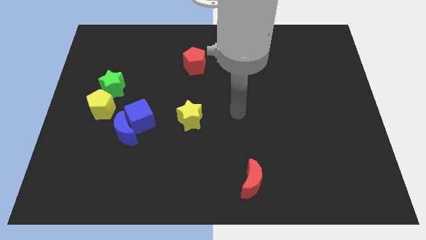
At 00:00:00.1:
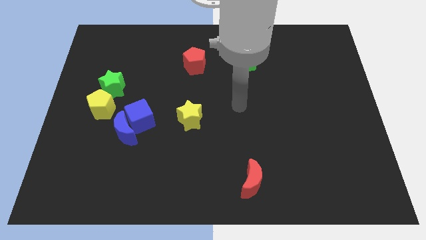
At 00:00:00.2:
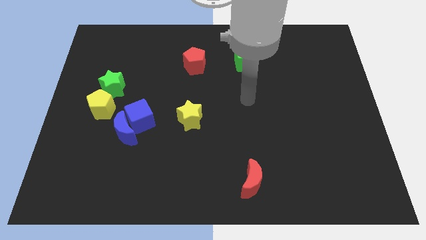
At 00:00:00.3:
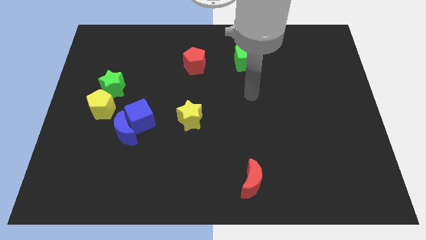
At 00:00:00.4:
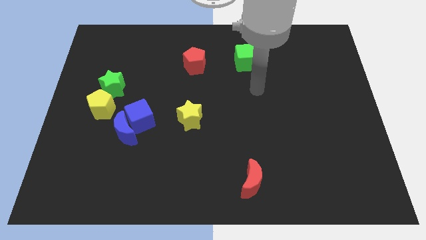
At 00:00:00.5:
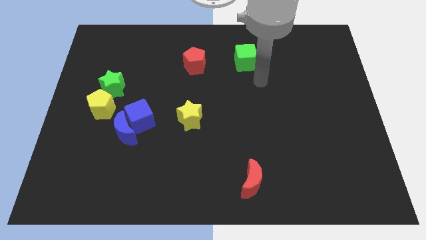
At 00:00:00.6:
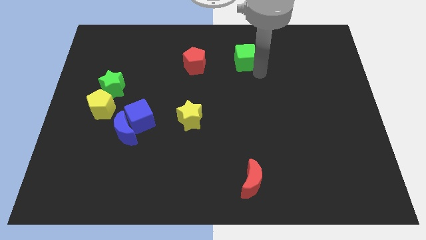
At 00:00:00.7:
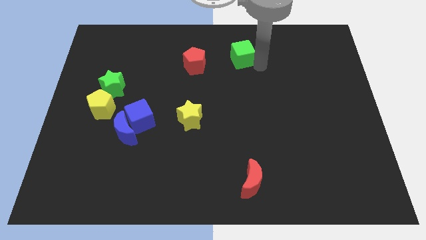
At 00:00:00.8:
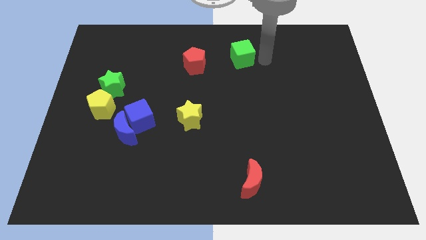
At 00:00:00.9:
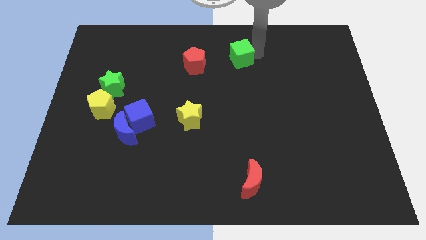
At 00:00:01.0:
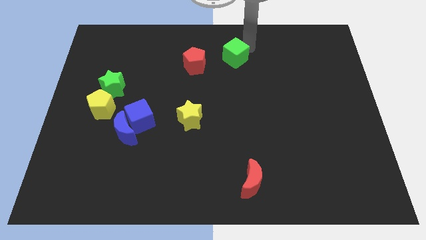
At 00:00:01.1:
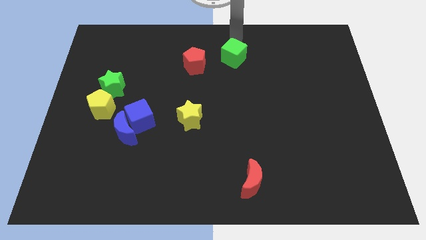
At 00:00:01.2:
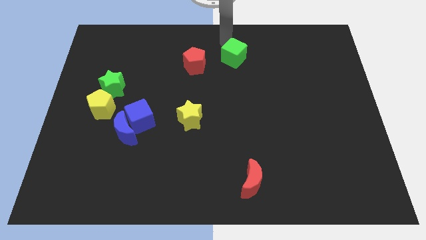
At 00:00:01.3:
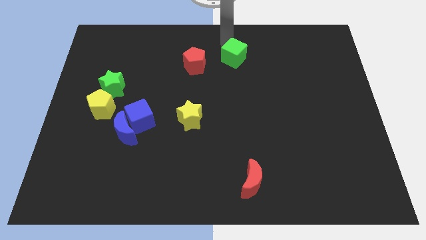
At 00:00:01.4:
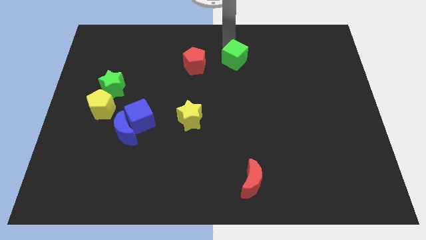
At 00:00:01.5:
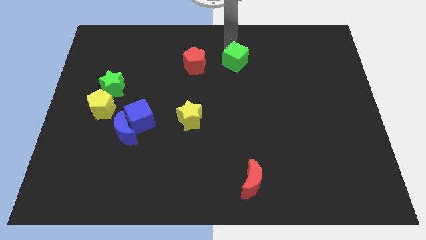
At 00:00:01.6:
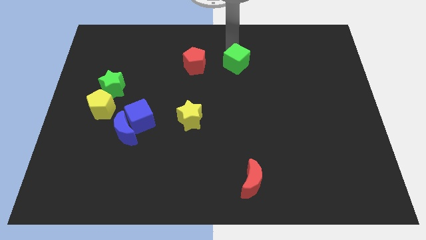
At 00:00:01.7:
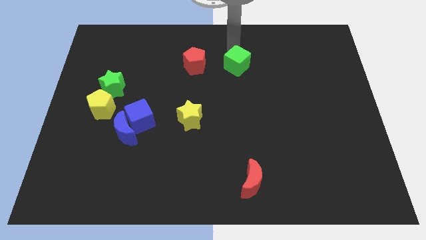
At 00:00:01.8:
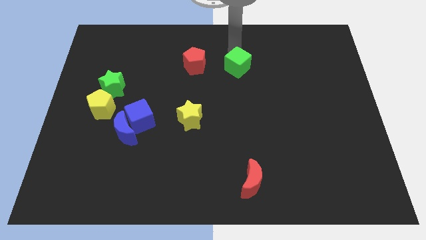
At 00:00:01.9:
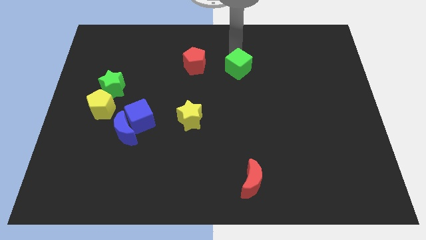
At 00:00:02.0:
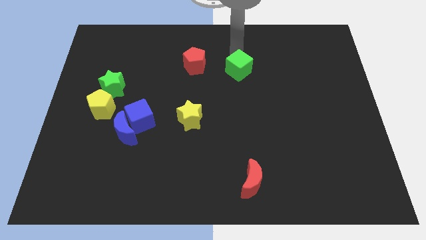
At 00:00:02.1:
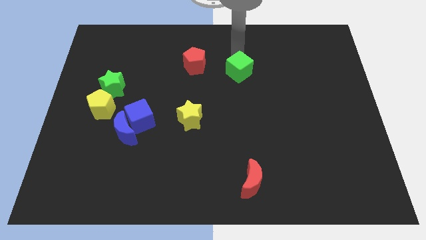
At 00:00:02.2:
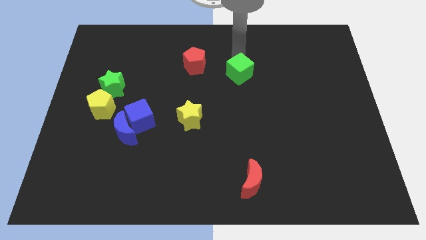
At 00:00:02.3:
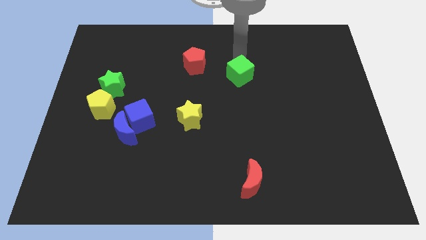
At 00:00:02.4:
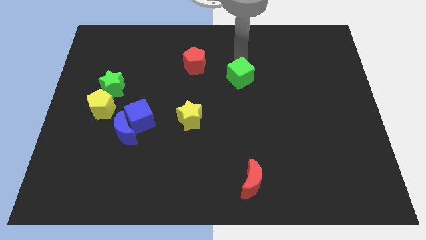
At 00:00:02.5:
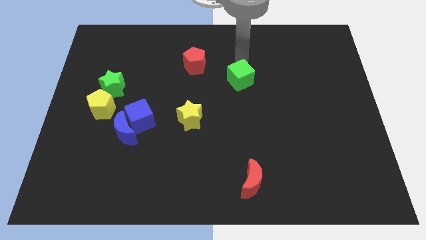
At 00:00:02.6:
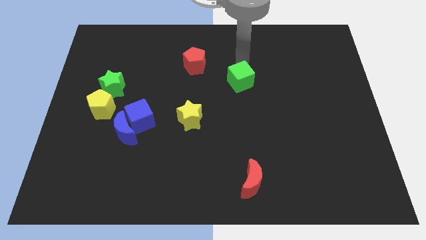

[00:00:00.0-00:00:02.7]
push the green cube down a bit

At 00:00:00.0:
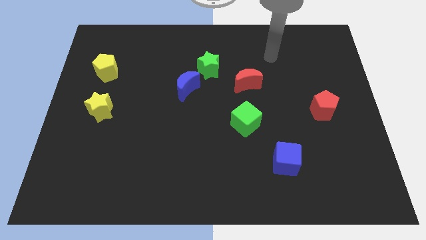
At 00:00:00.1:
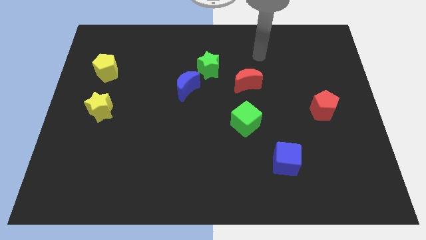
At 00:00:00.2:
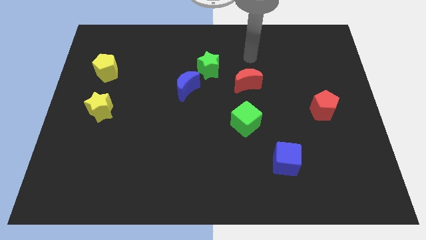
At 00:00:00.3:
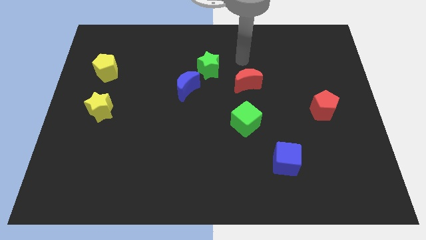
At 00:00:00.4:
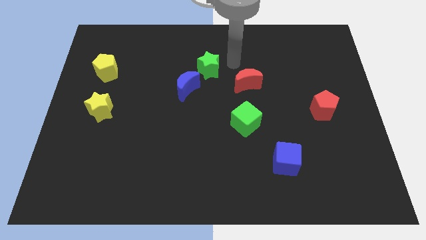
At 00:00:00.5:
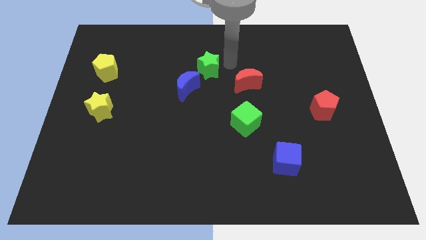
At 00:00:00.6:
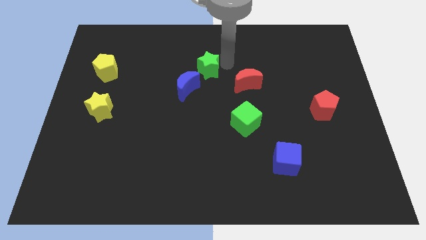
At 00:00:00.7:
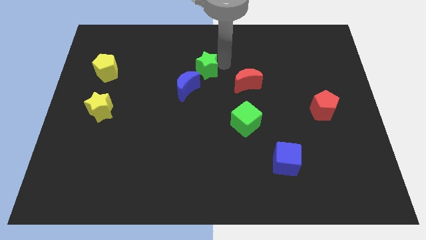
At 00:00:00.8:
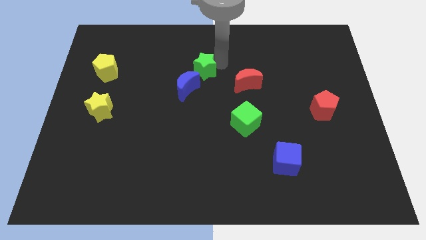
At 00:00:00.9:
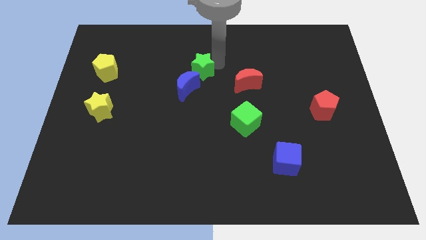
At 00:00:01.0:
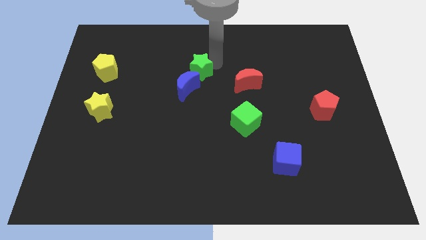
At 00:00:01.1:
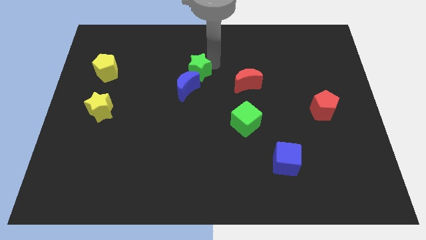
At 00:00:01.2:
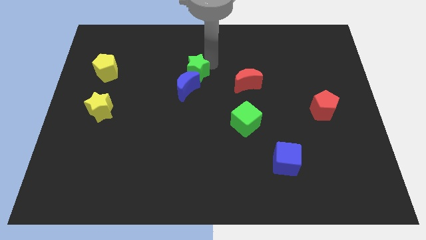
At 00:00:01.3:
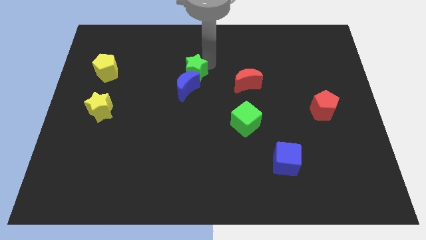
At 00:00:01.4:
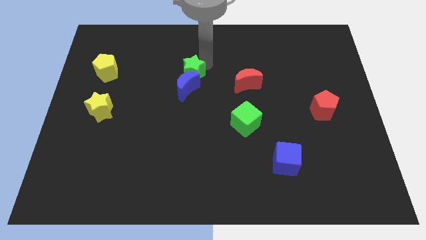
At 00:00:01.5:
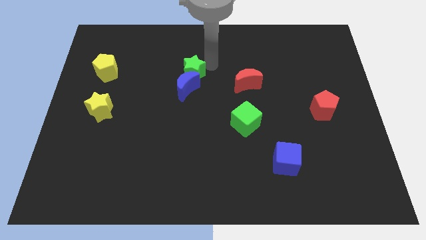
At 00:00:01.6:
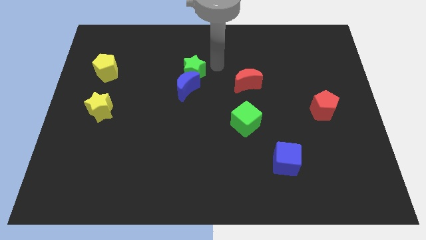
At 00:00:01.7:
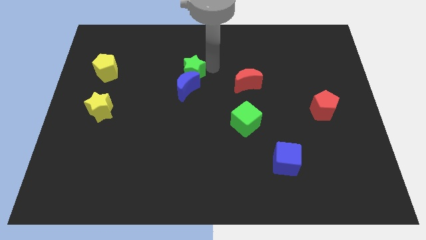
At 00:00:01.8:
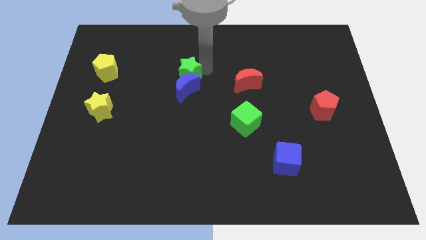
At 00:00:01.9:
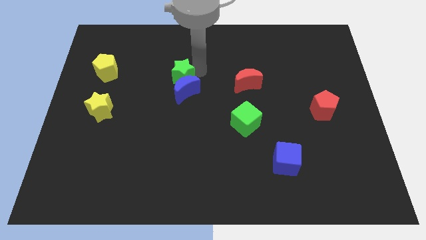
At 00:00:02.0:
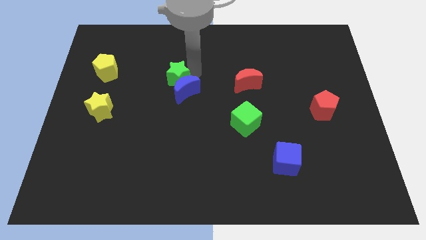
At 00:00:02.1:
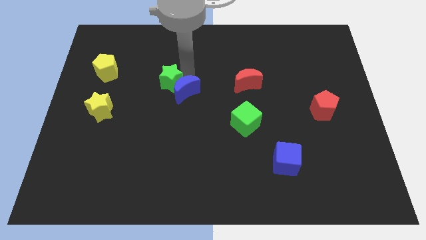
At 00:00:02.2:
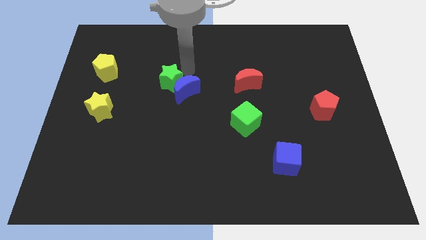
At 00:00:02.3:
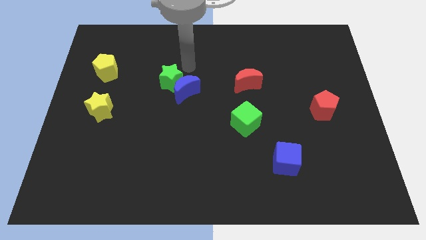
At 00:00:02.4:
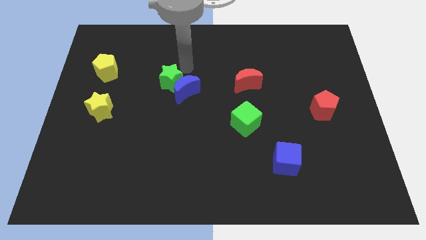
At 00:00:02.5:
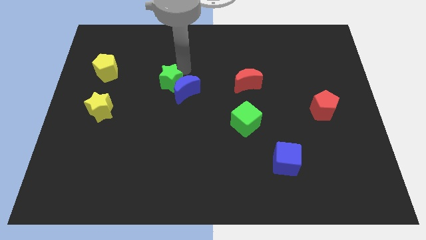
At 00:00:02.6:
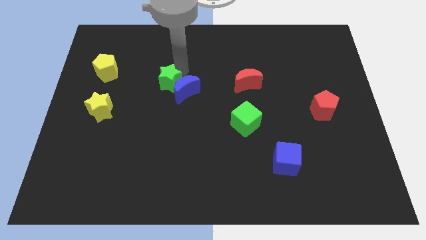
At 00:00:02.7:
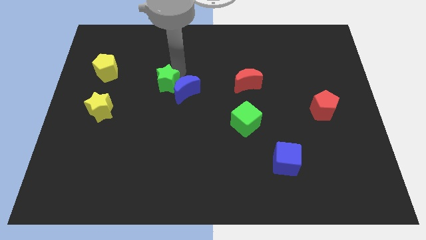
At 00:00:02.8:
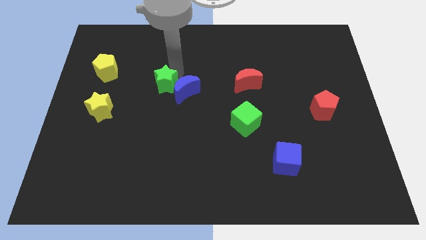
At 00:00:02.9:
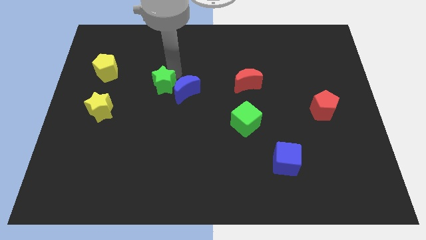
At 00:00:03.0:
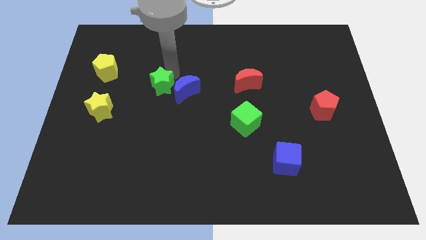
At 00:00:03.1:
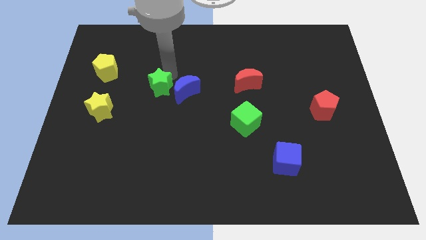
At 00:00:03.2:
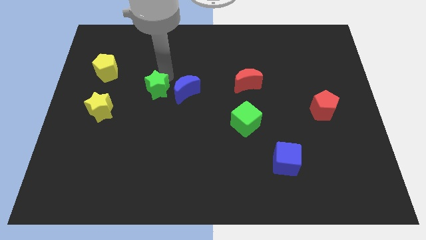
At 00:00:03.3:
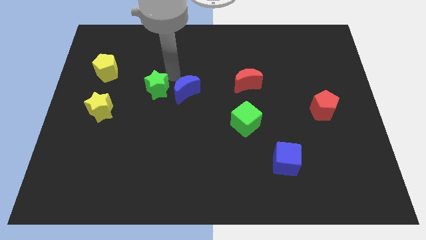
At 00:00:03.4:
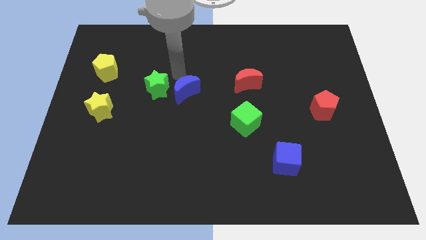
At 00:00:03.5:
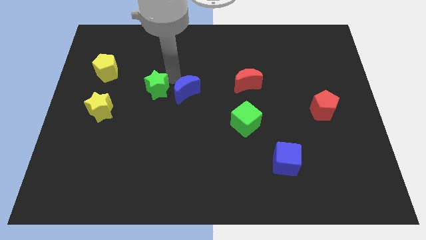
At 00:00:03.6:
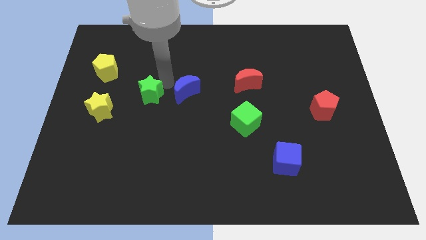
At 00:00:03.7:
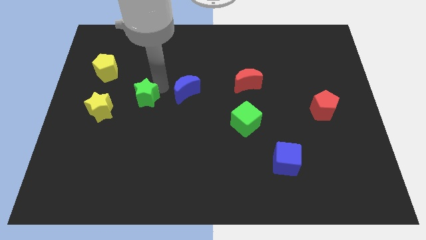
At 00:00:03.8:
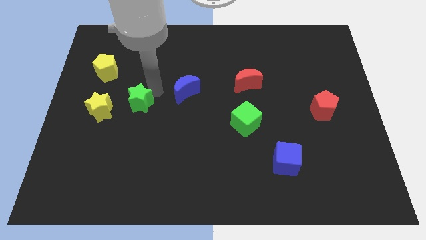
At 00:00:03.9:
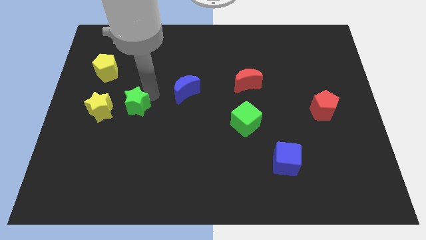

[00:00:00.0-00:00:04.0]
move the green star down and to the left diagonally

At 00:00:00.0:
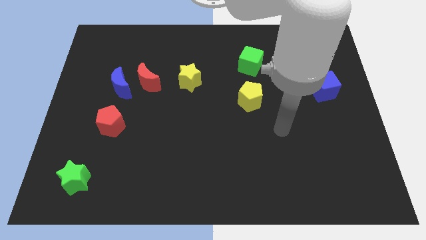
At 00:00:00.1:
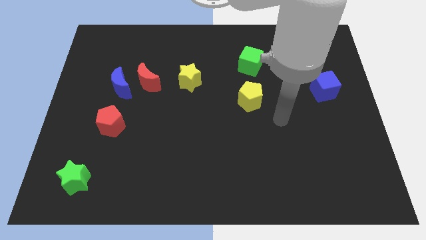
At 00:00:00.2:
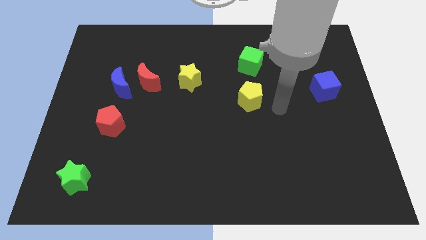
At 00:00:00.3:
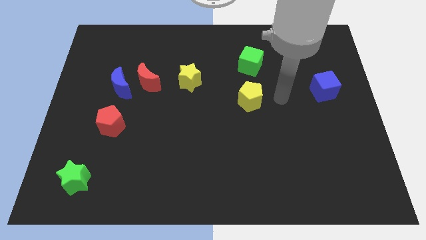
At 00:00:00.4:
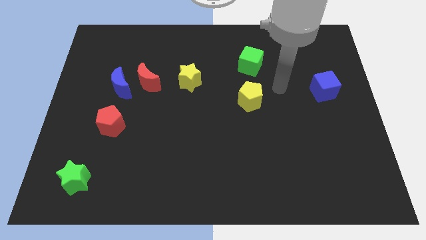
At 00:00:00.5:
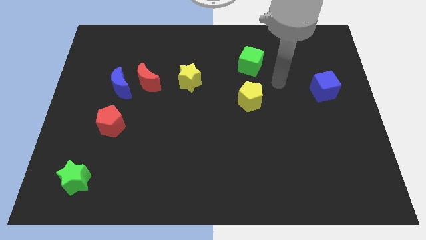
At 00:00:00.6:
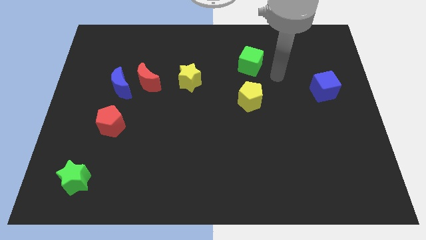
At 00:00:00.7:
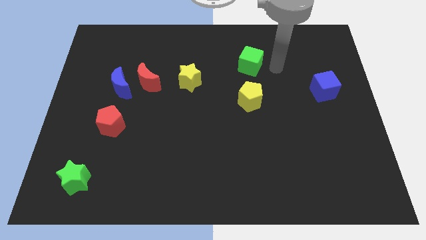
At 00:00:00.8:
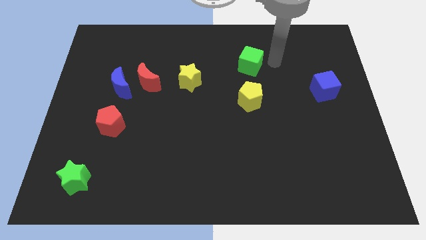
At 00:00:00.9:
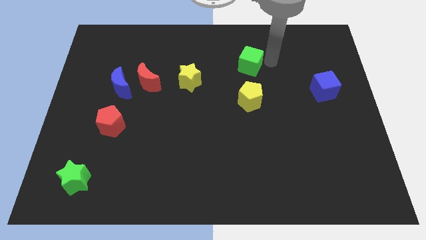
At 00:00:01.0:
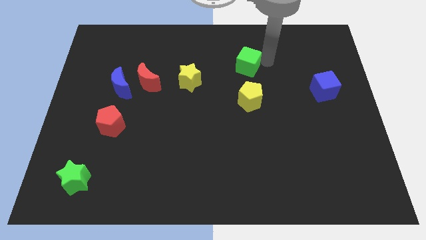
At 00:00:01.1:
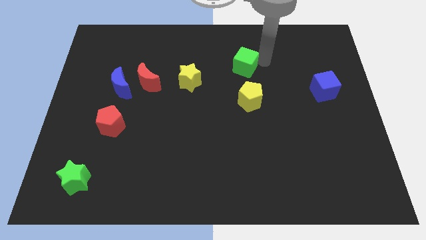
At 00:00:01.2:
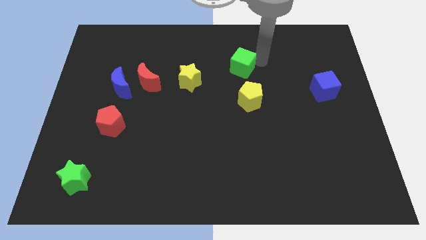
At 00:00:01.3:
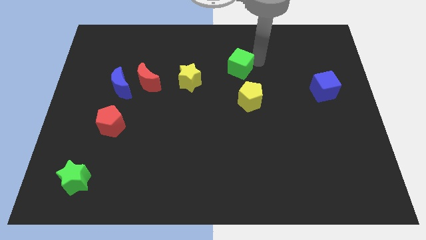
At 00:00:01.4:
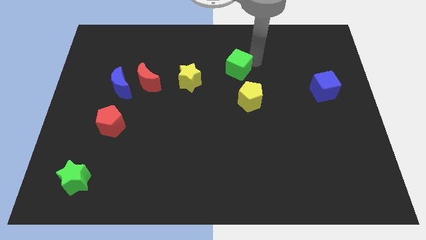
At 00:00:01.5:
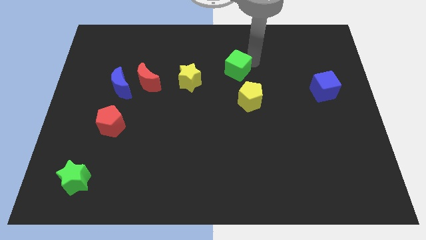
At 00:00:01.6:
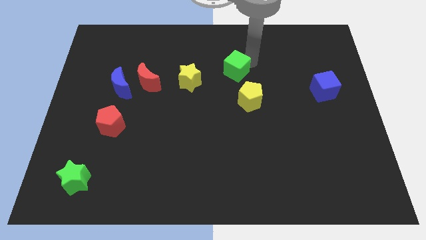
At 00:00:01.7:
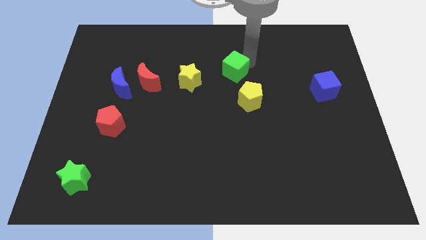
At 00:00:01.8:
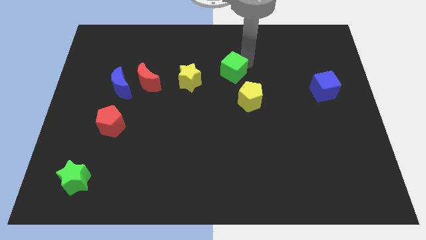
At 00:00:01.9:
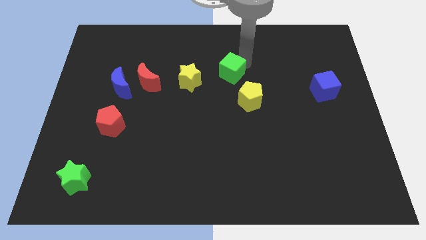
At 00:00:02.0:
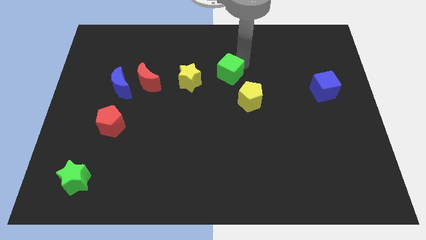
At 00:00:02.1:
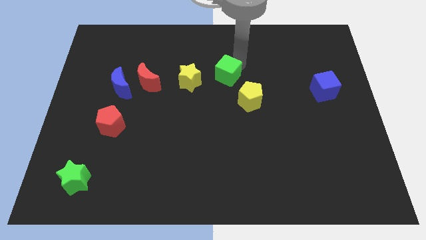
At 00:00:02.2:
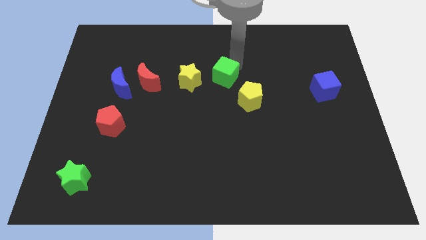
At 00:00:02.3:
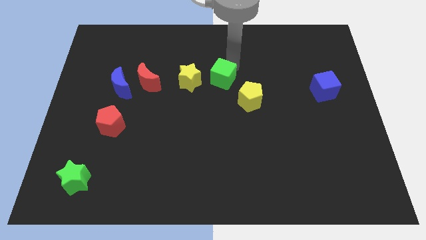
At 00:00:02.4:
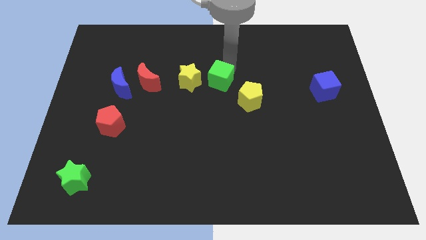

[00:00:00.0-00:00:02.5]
move the green cube a little left
